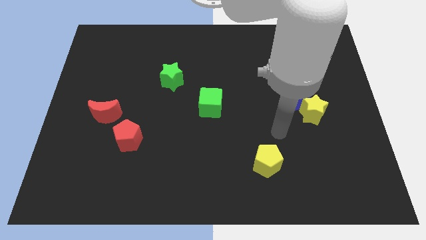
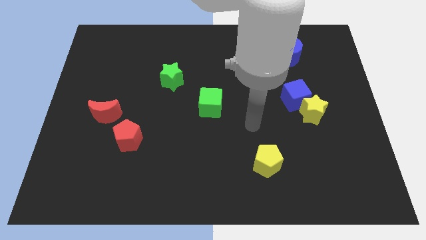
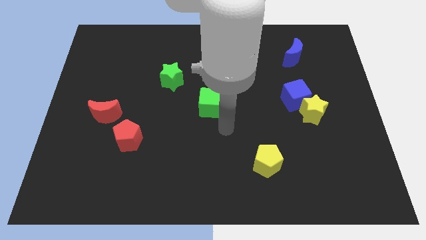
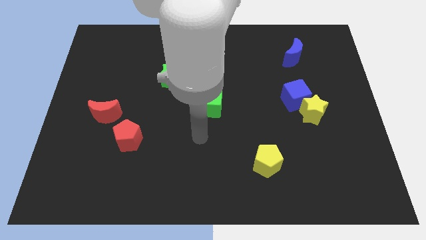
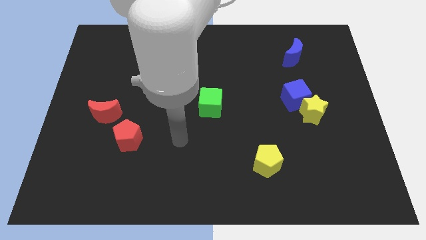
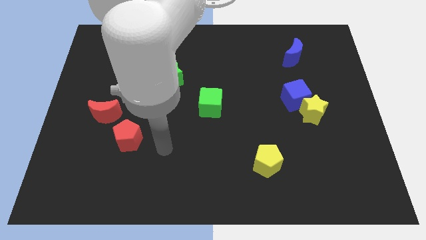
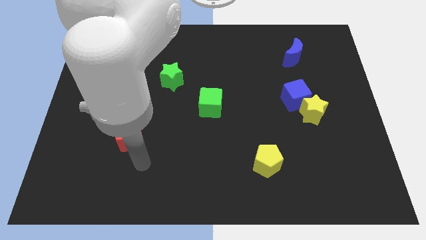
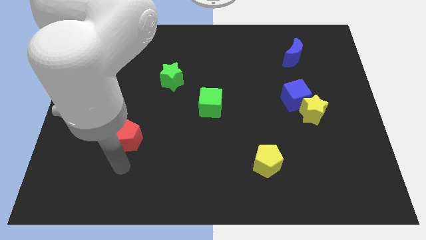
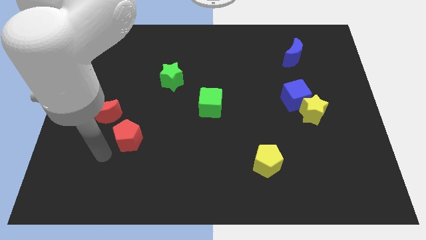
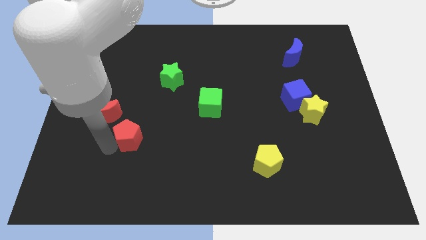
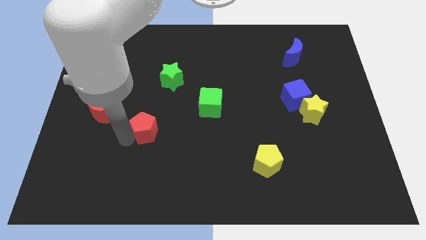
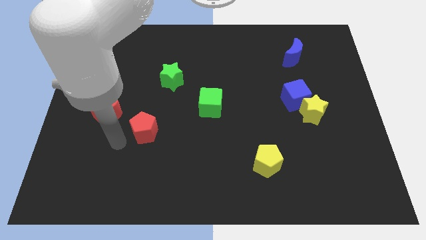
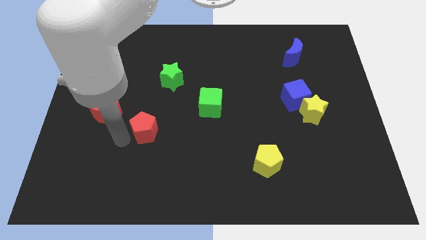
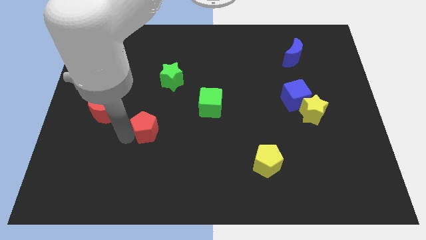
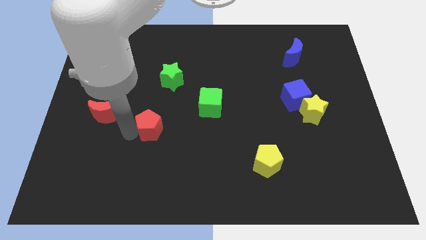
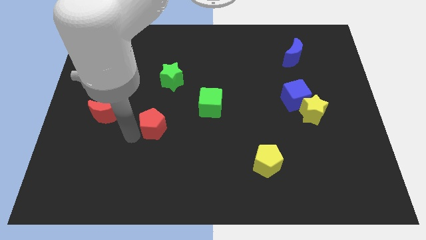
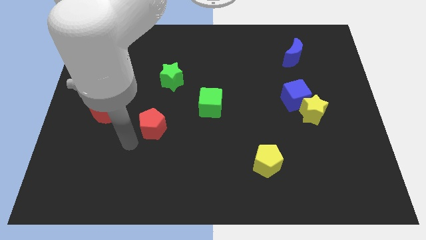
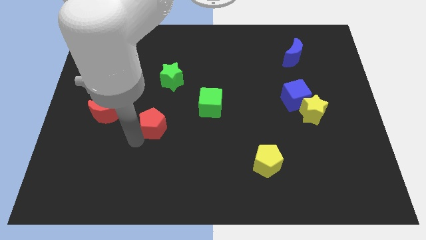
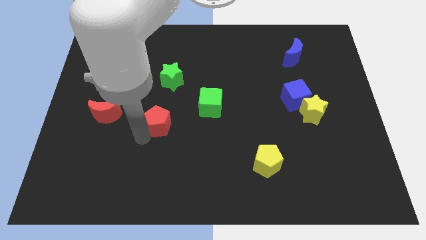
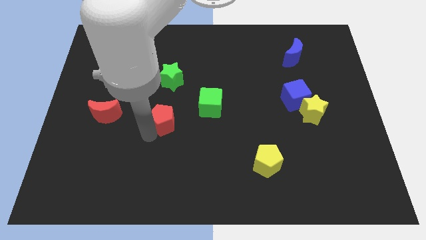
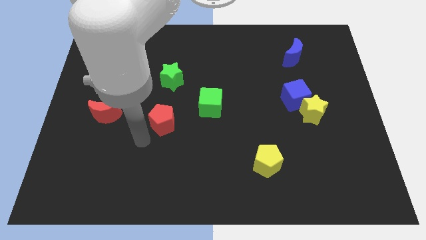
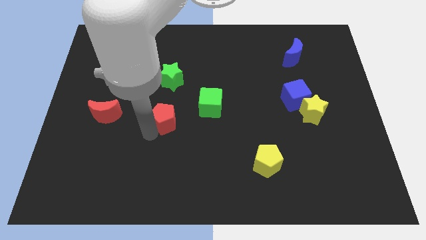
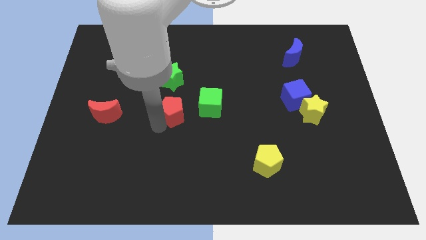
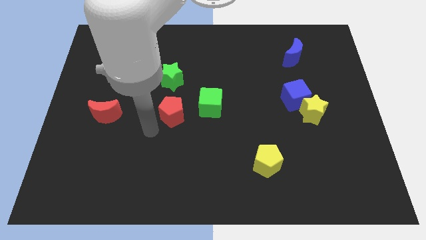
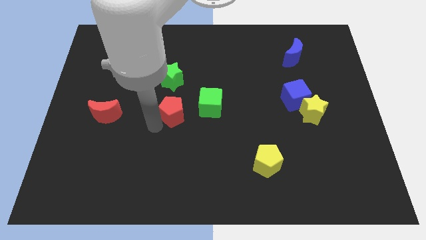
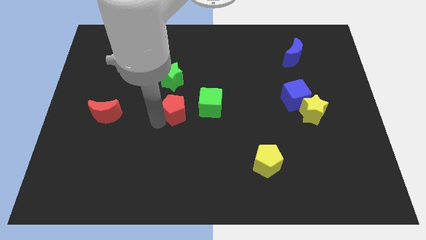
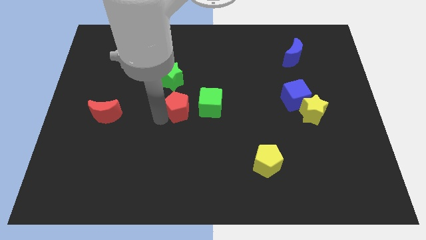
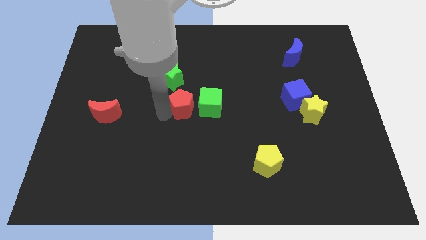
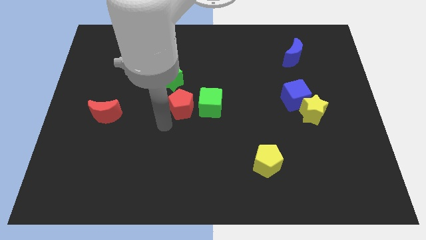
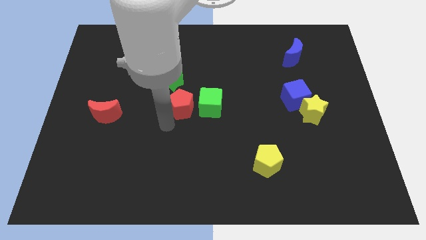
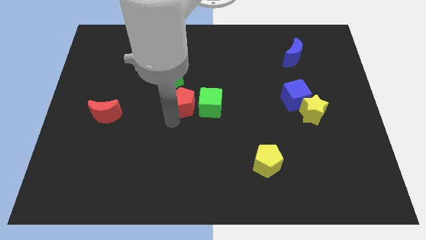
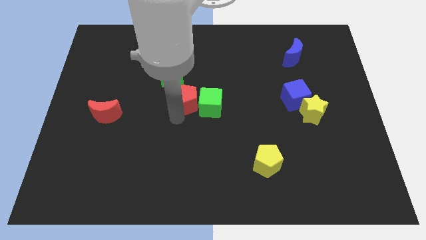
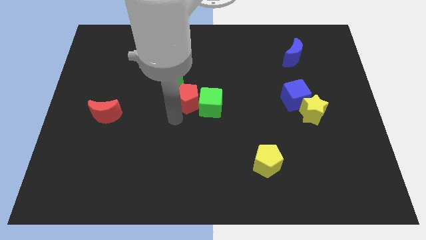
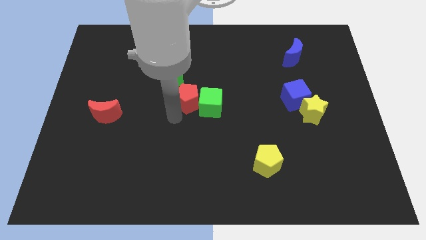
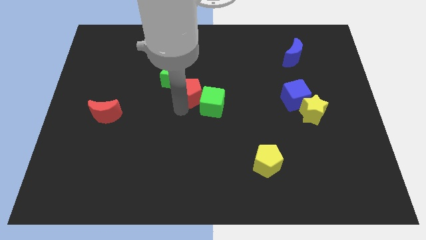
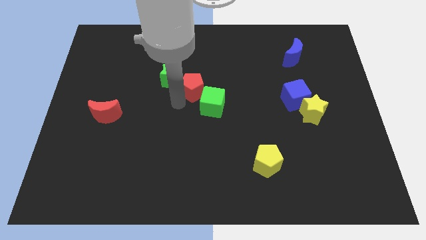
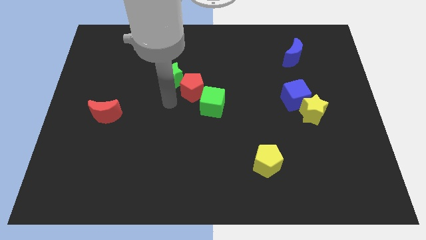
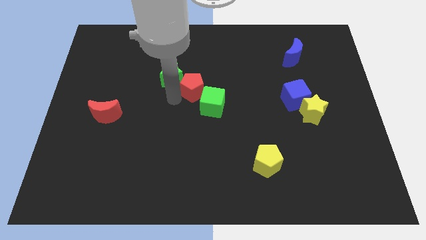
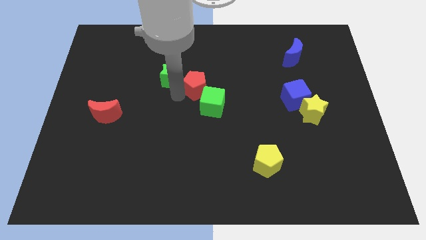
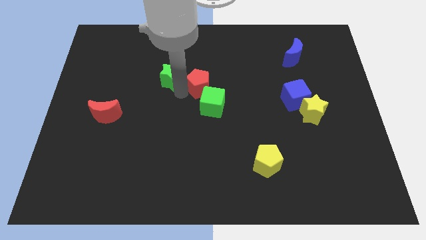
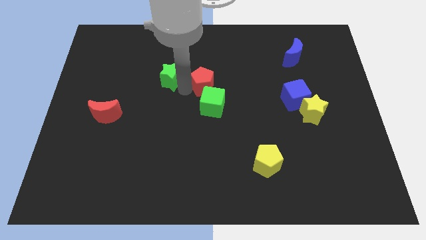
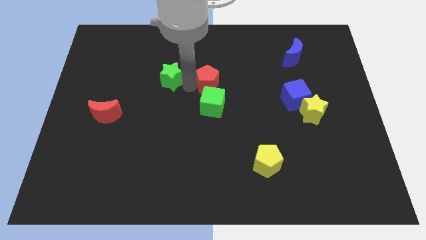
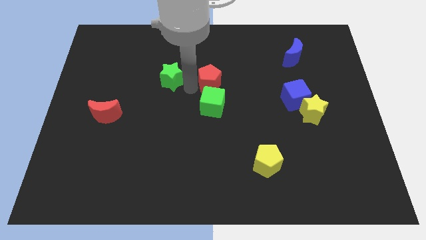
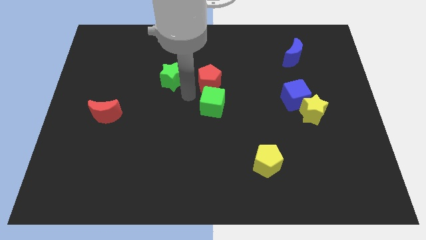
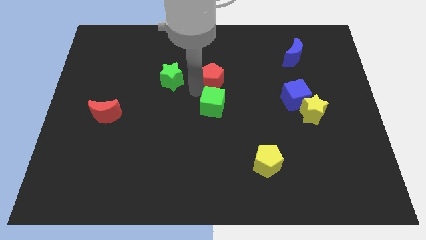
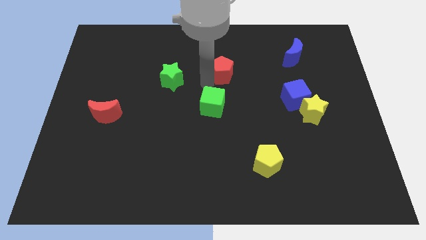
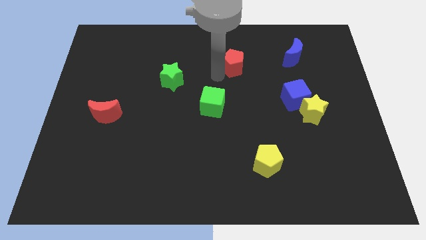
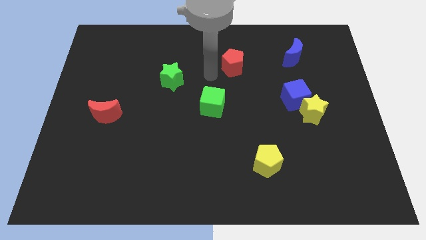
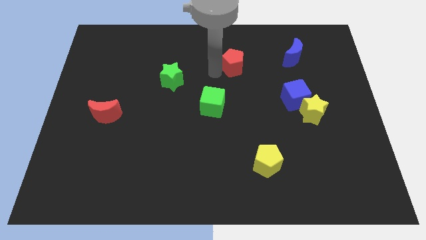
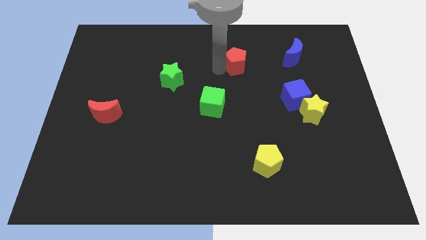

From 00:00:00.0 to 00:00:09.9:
put the red pentagon left of the blue moon

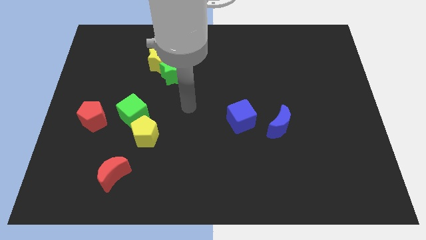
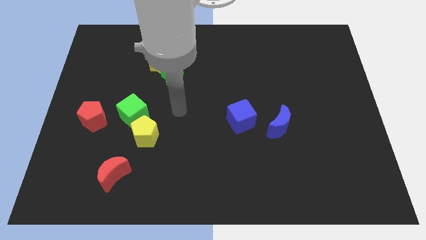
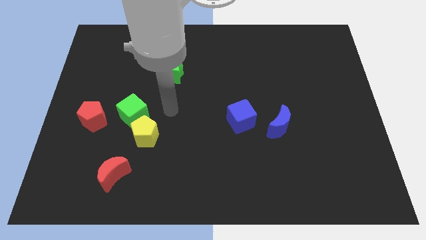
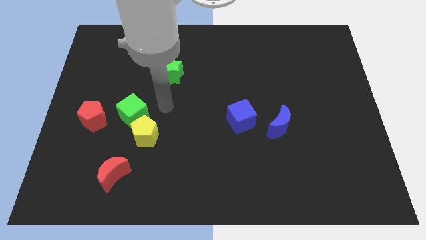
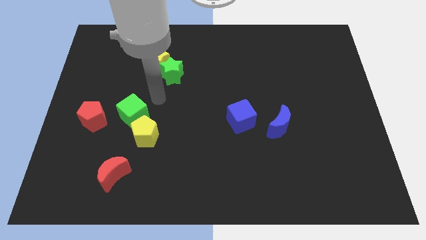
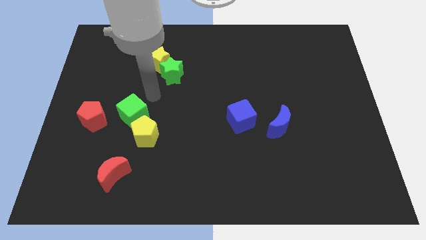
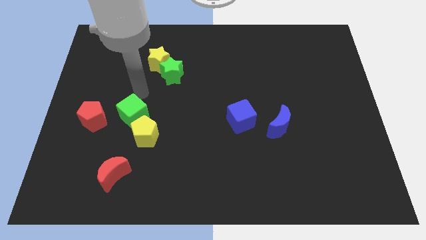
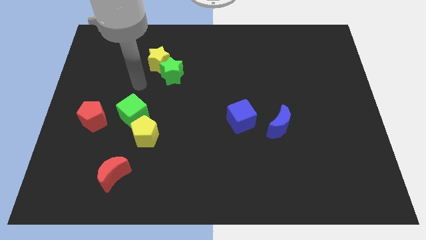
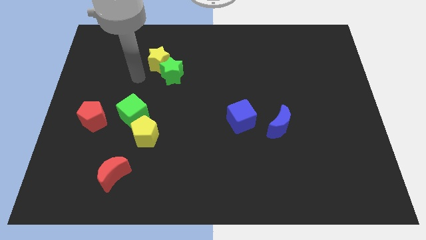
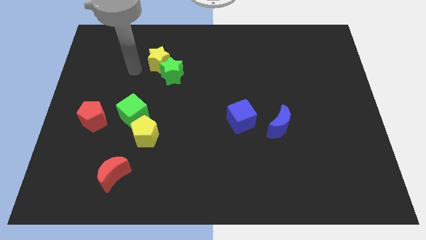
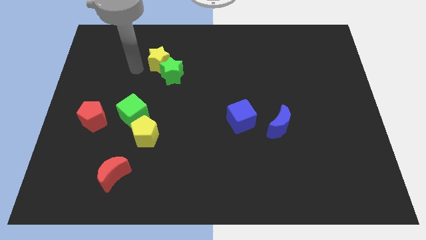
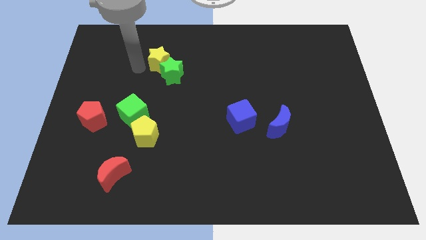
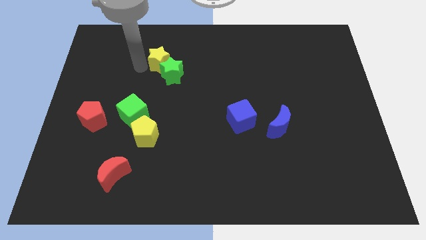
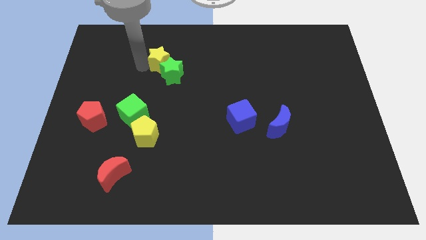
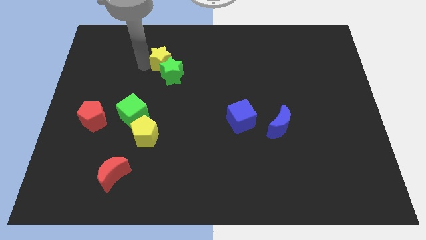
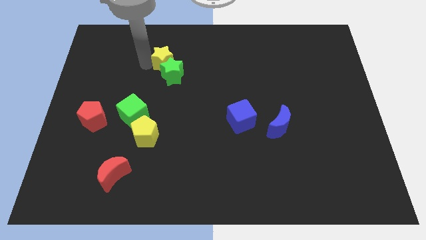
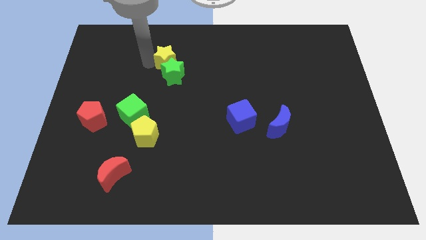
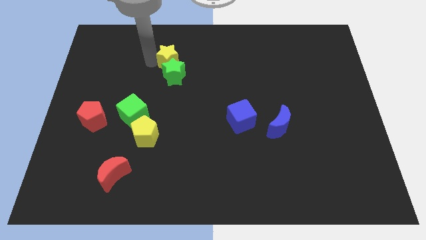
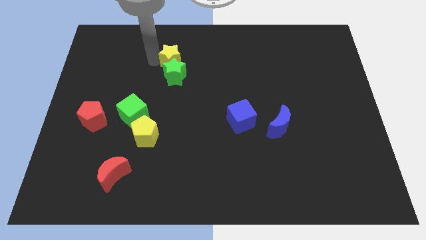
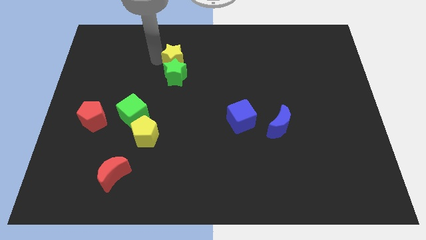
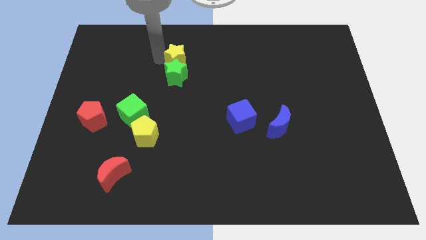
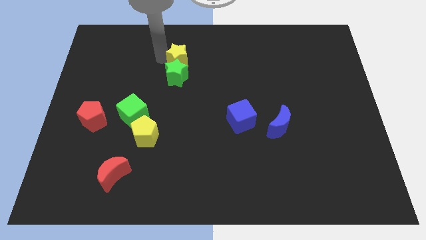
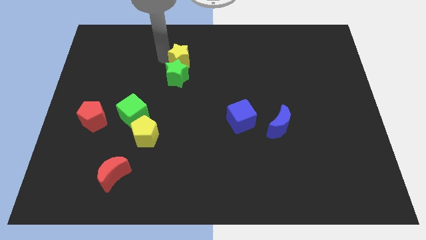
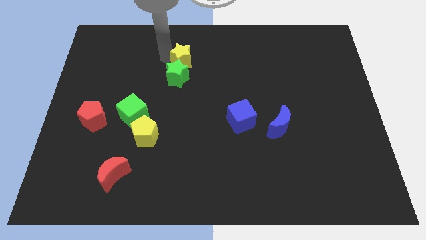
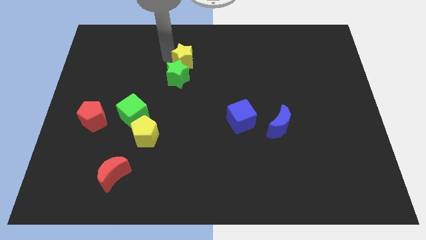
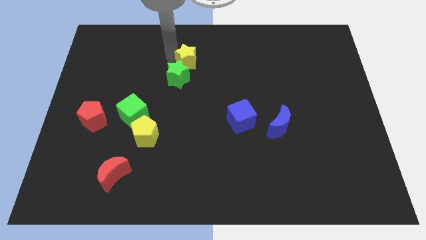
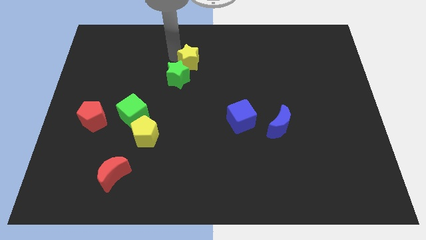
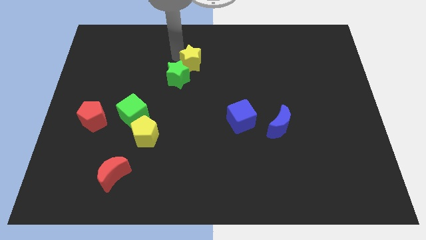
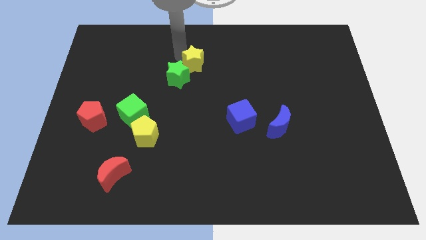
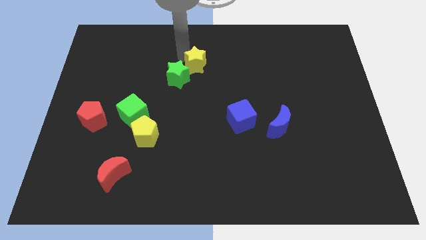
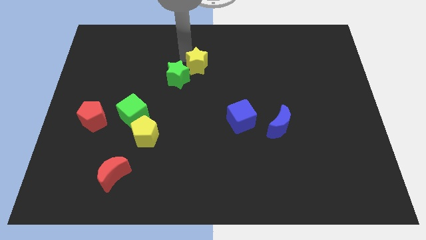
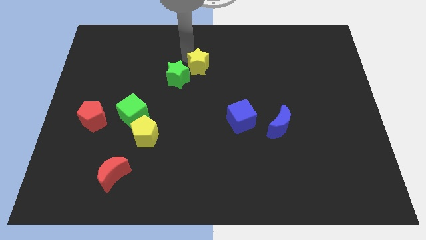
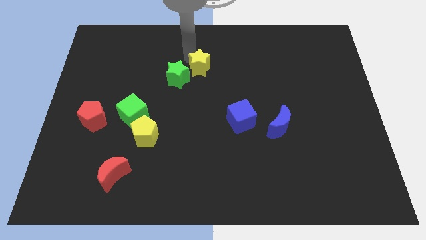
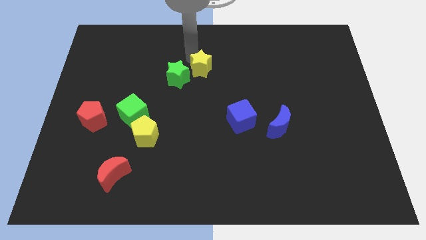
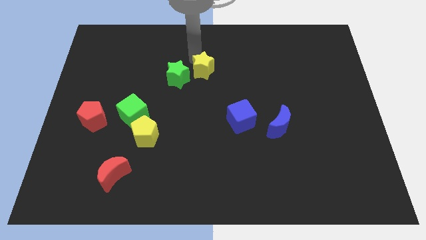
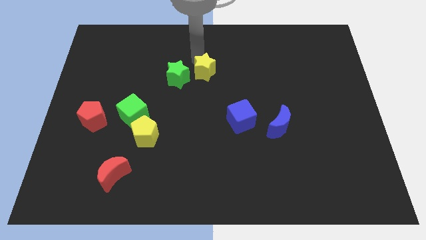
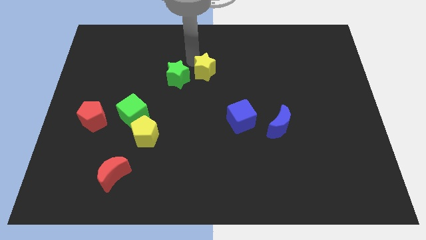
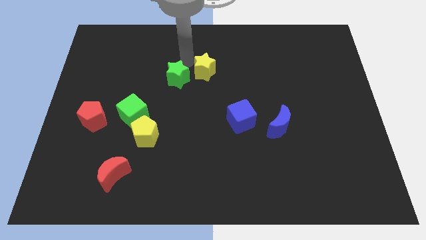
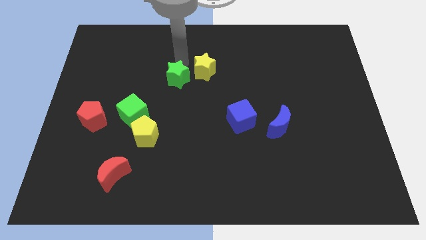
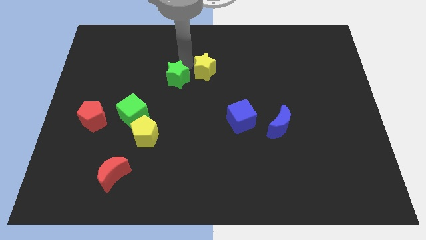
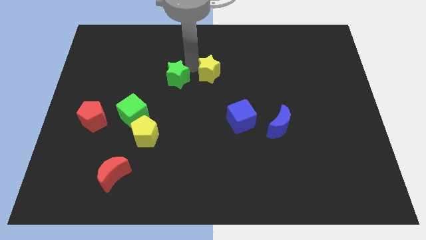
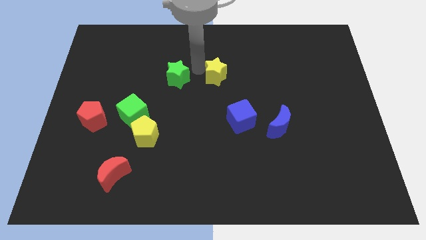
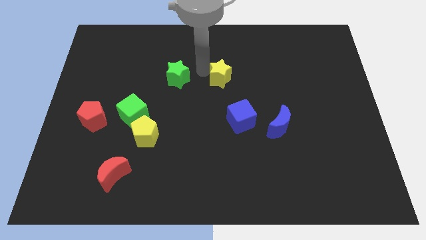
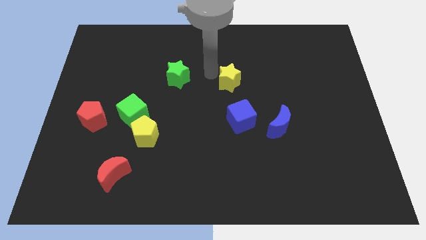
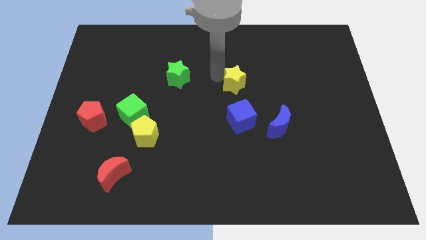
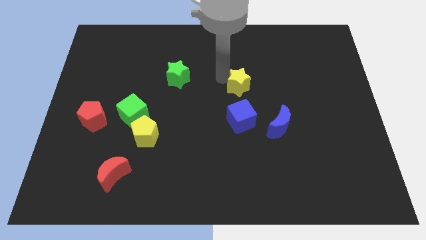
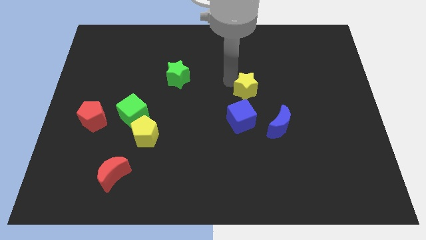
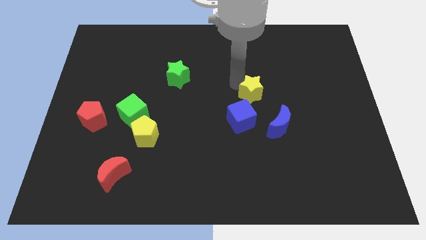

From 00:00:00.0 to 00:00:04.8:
move the yellow star diagonally up and to the right of the blue cube
